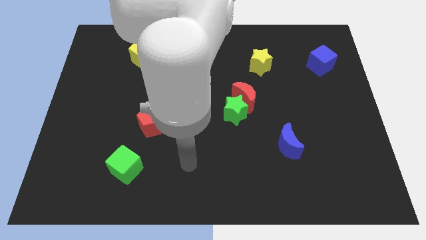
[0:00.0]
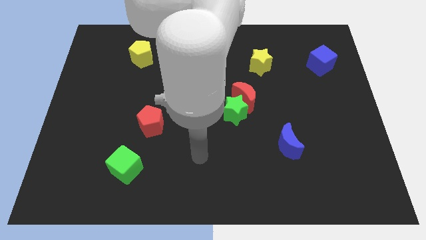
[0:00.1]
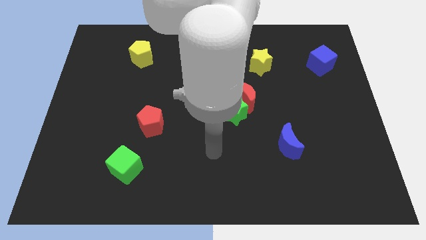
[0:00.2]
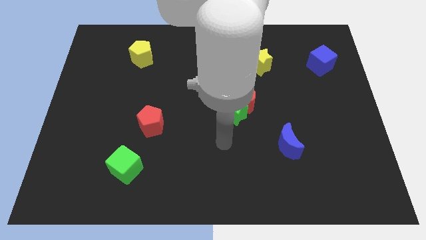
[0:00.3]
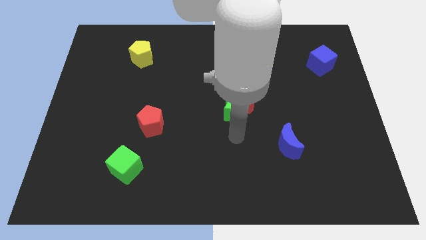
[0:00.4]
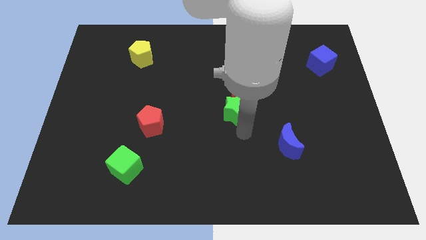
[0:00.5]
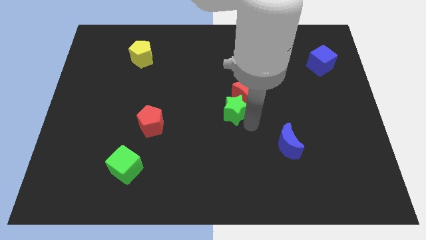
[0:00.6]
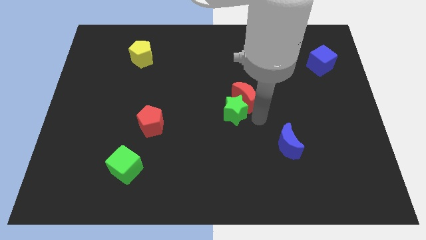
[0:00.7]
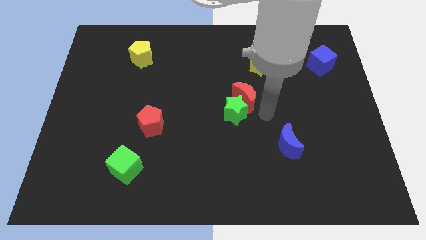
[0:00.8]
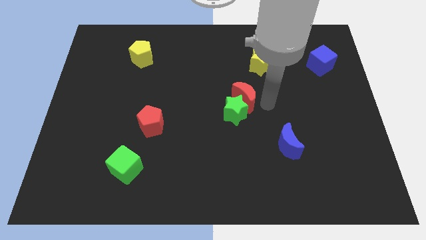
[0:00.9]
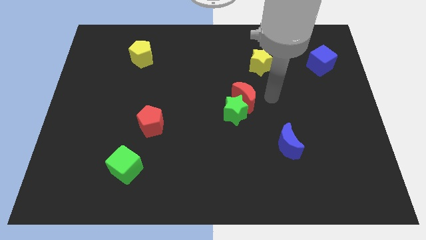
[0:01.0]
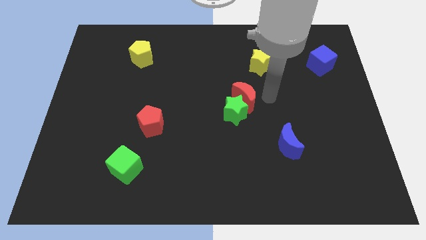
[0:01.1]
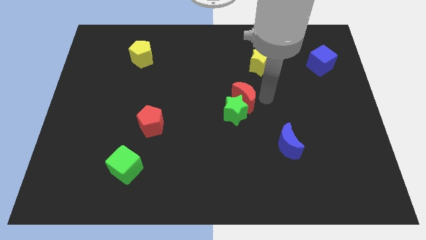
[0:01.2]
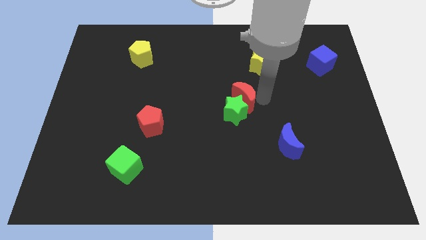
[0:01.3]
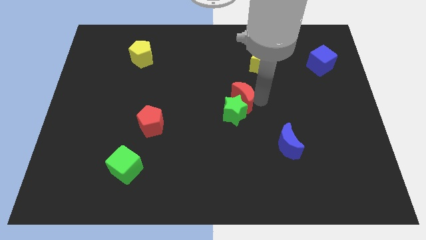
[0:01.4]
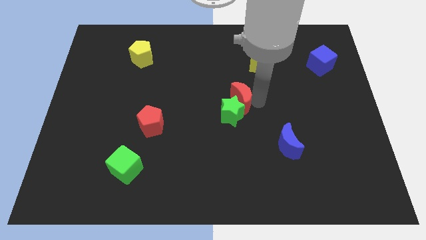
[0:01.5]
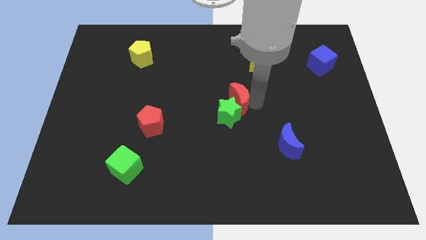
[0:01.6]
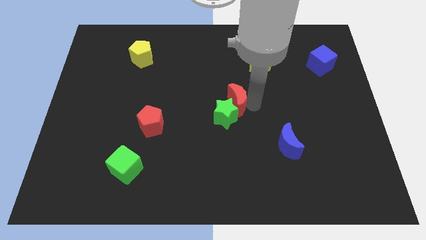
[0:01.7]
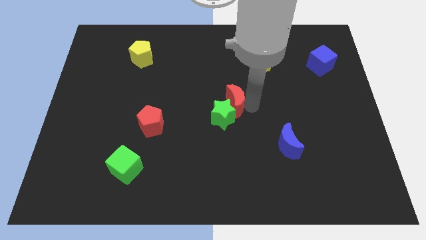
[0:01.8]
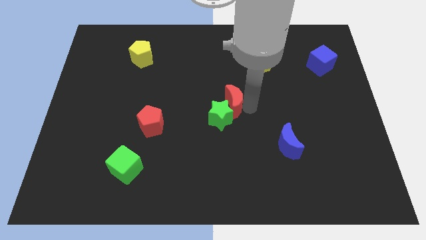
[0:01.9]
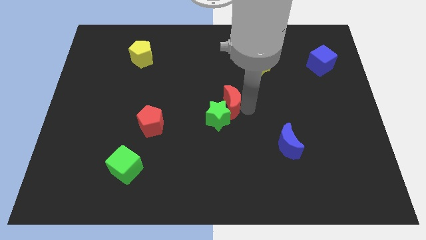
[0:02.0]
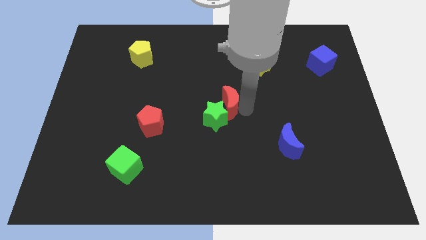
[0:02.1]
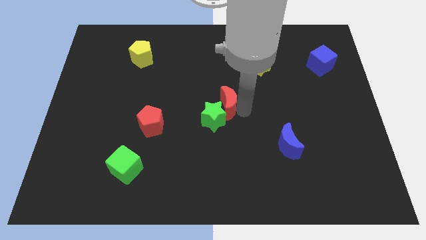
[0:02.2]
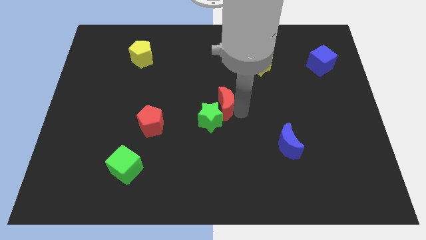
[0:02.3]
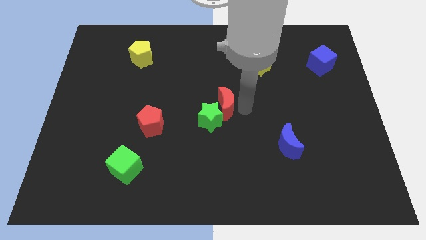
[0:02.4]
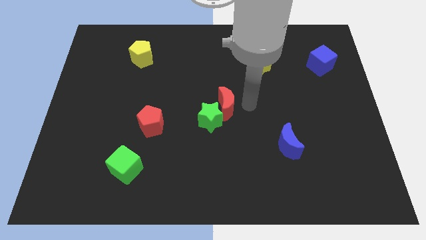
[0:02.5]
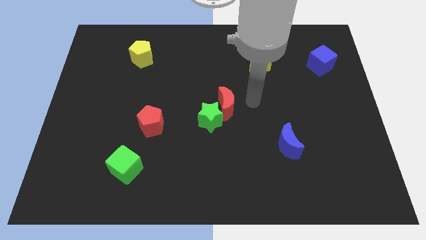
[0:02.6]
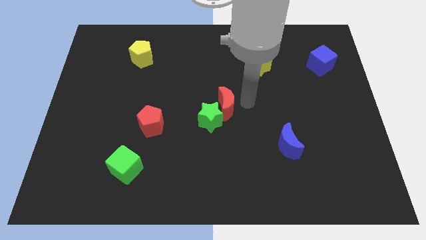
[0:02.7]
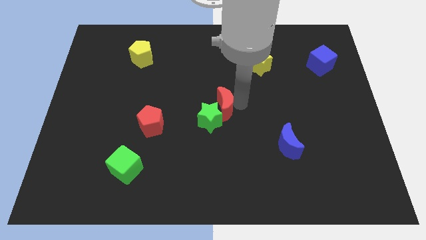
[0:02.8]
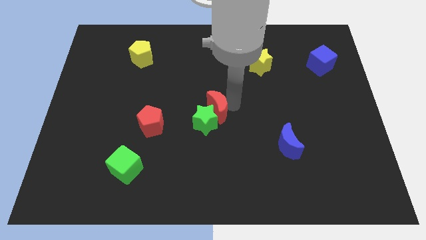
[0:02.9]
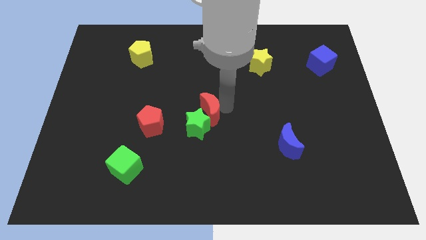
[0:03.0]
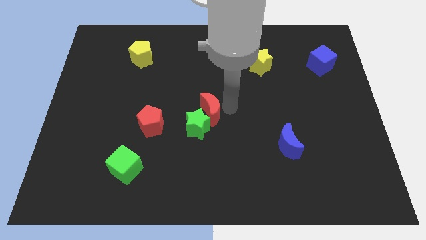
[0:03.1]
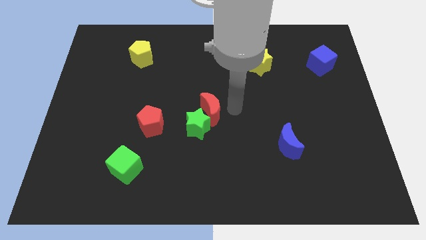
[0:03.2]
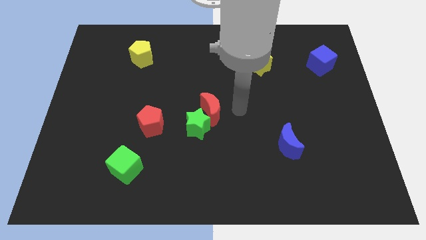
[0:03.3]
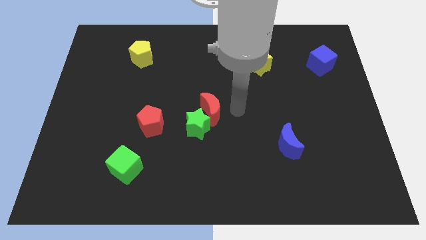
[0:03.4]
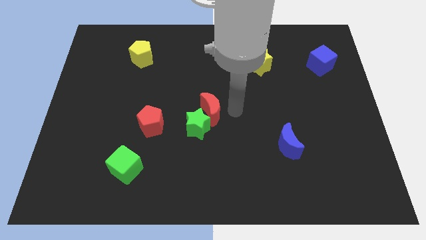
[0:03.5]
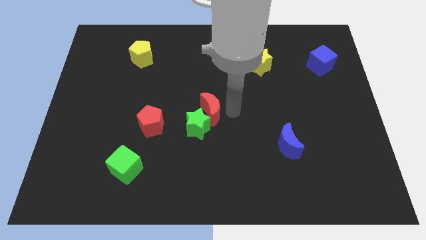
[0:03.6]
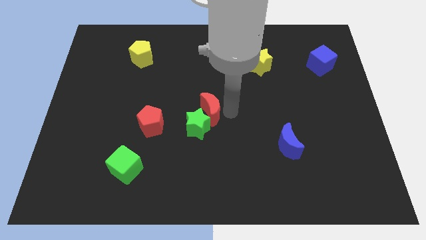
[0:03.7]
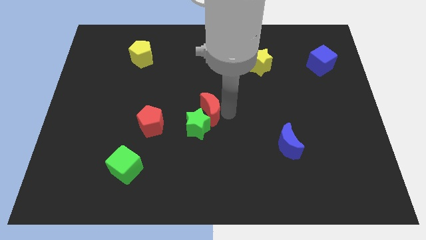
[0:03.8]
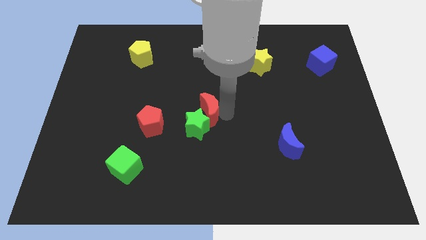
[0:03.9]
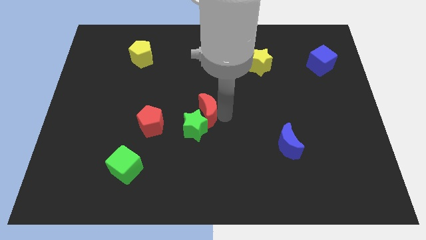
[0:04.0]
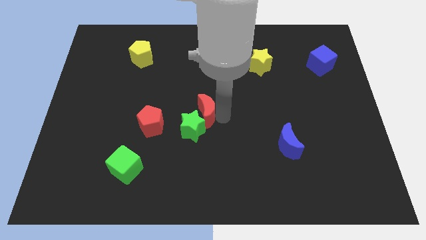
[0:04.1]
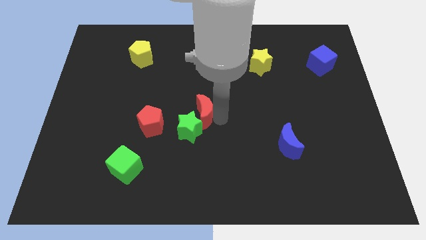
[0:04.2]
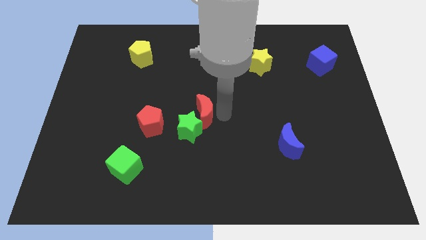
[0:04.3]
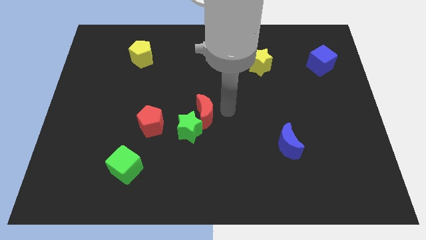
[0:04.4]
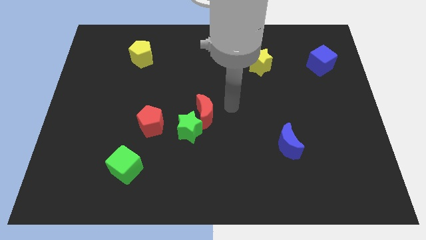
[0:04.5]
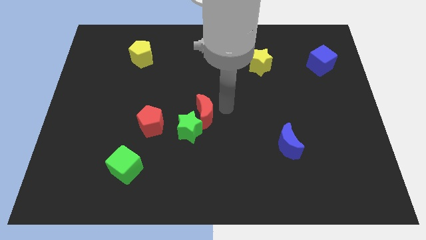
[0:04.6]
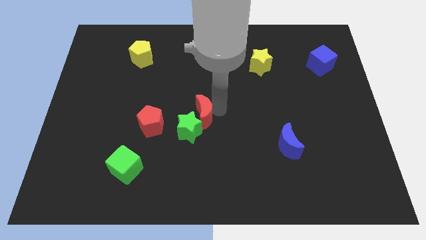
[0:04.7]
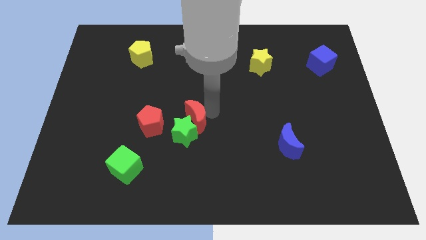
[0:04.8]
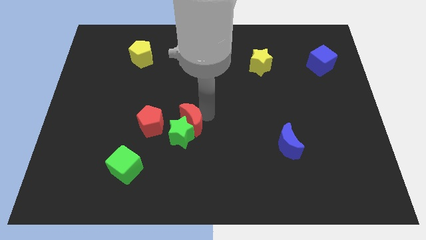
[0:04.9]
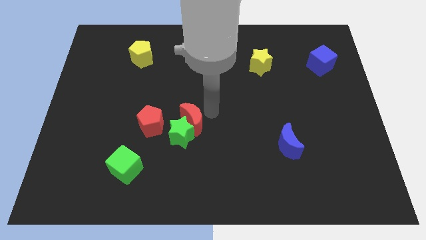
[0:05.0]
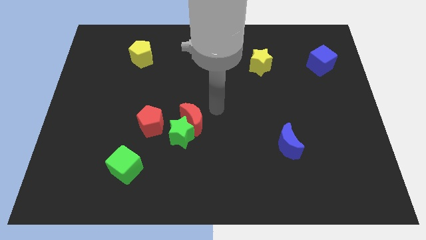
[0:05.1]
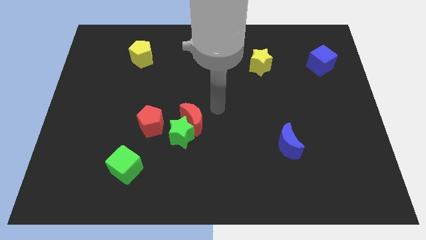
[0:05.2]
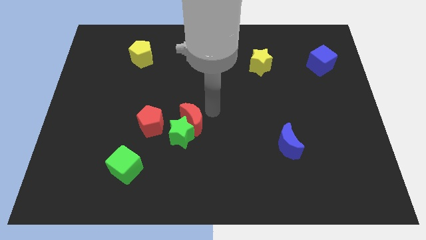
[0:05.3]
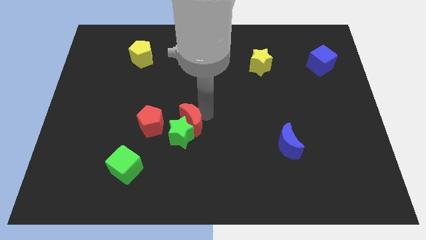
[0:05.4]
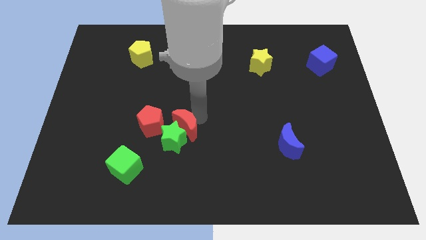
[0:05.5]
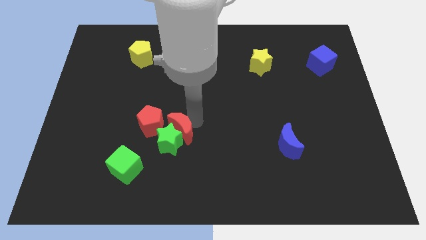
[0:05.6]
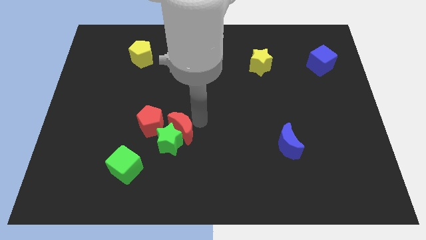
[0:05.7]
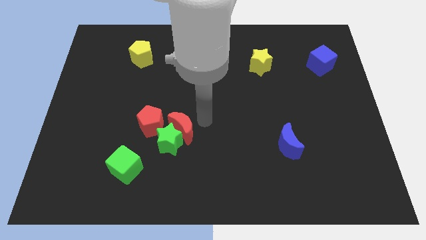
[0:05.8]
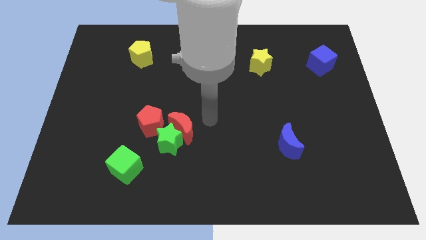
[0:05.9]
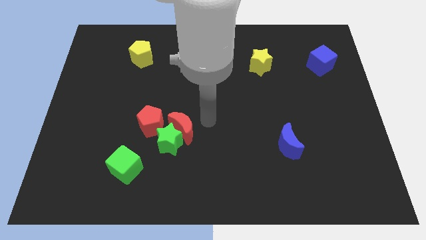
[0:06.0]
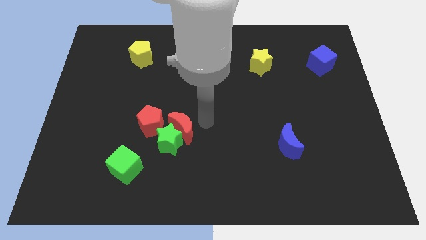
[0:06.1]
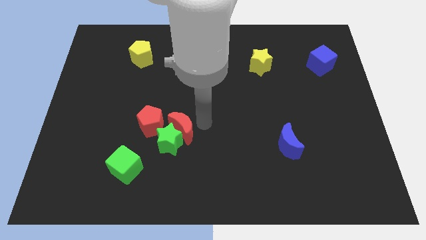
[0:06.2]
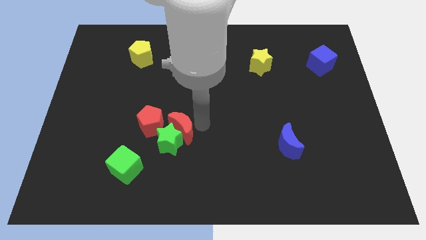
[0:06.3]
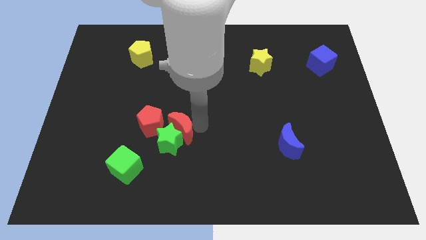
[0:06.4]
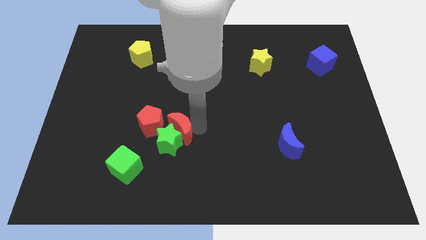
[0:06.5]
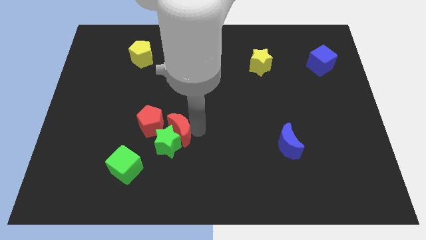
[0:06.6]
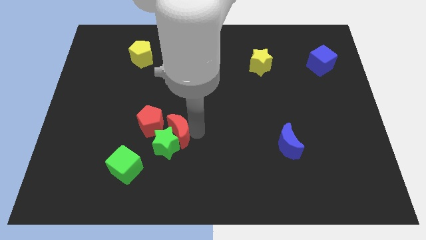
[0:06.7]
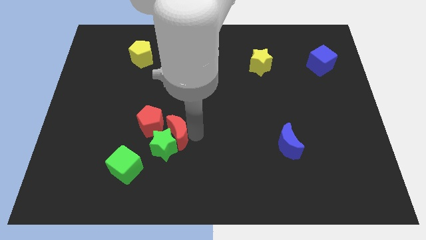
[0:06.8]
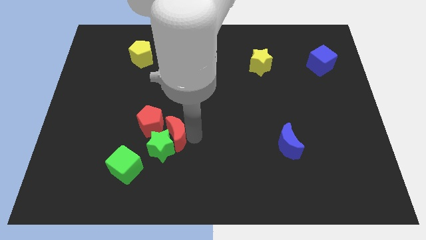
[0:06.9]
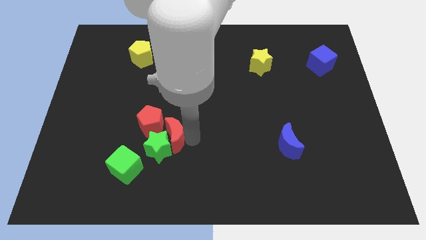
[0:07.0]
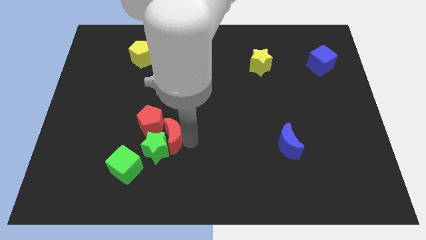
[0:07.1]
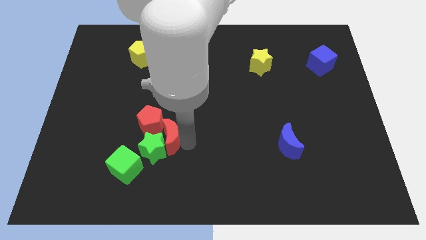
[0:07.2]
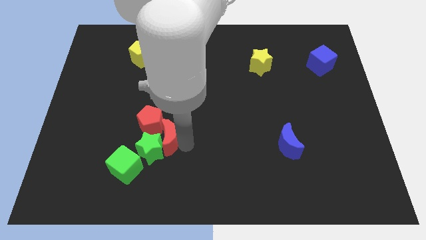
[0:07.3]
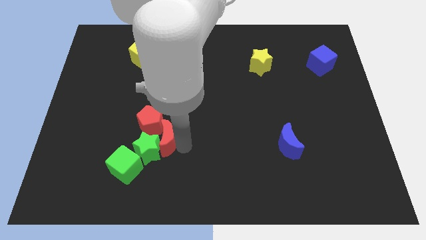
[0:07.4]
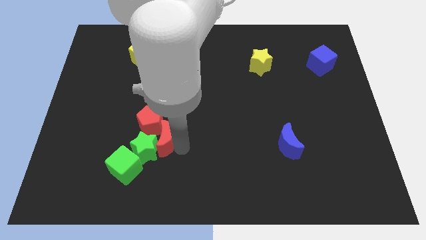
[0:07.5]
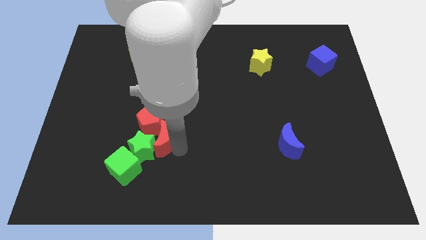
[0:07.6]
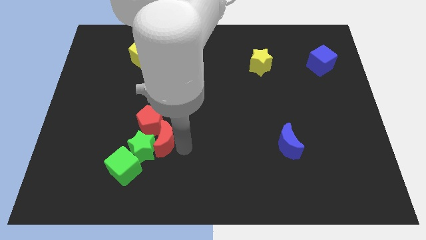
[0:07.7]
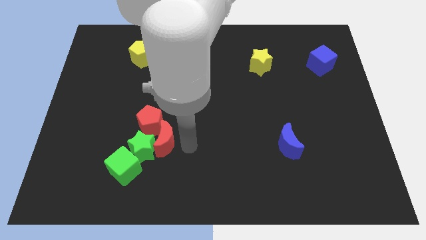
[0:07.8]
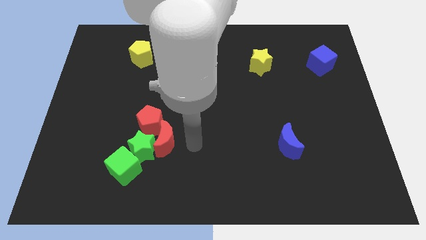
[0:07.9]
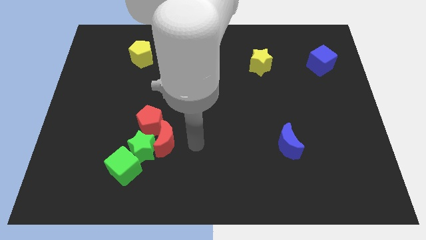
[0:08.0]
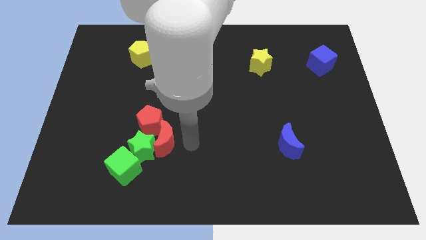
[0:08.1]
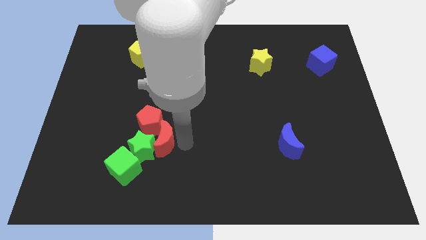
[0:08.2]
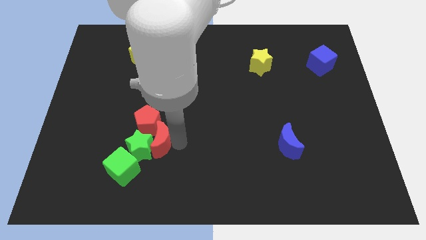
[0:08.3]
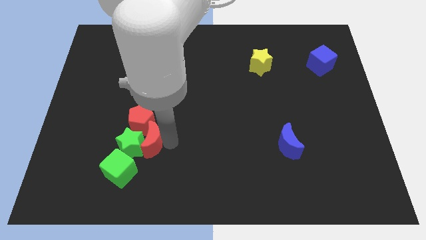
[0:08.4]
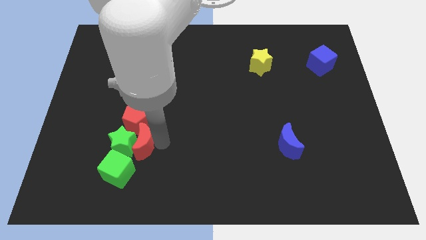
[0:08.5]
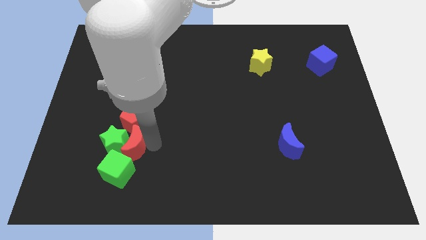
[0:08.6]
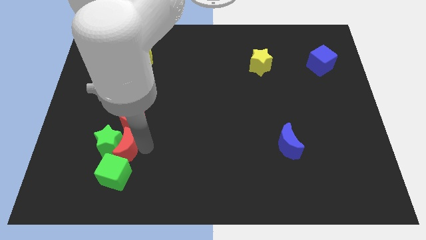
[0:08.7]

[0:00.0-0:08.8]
slide the red moon to the bottom left of the red pentagon
